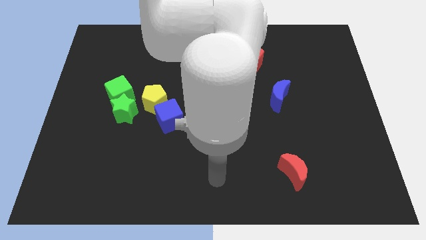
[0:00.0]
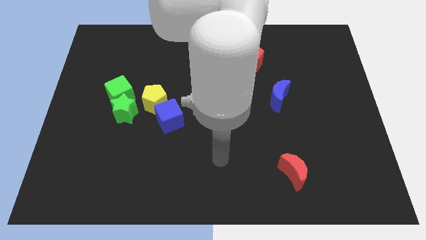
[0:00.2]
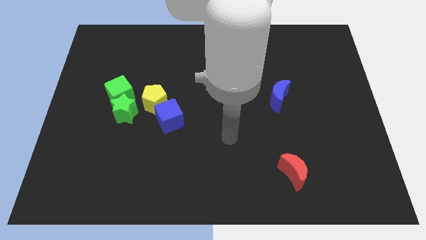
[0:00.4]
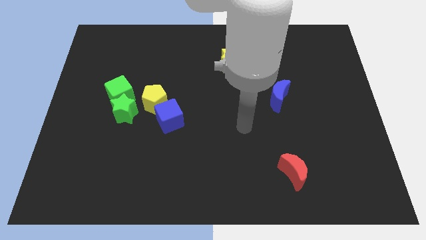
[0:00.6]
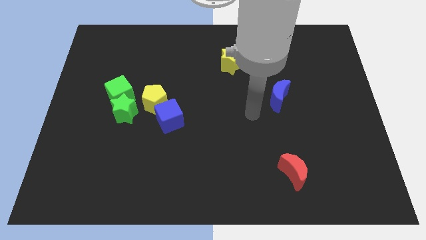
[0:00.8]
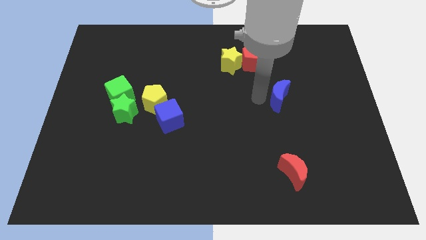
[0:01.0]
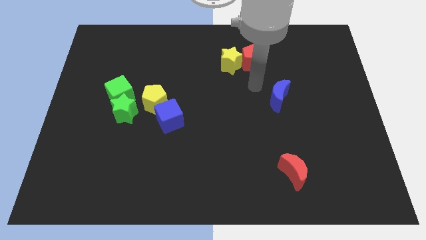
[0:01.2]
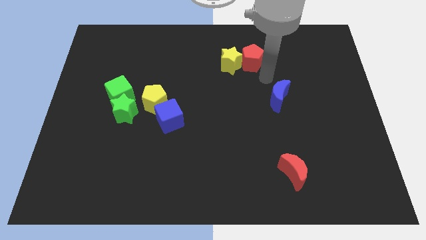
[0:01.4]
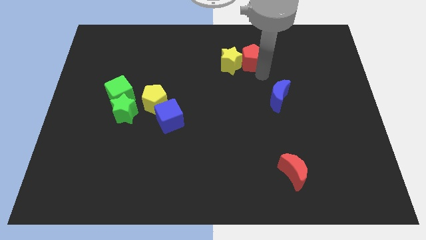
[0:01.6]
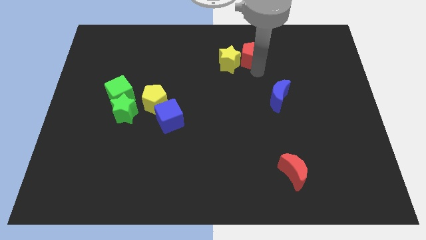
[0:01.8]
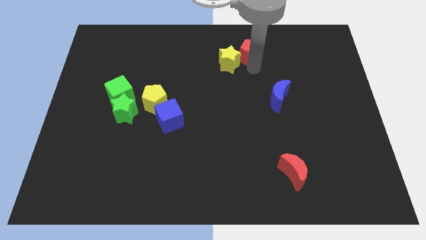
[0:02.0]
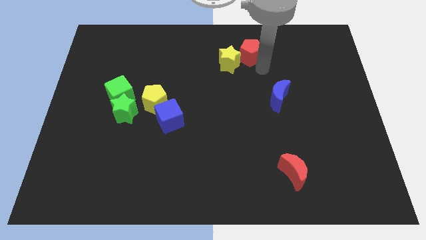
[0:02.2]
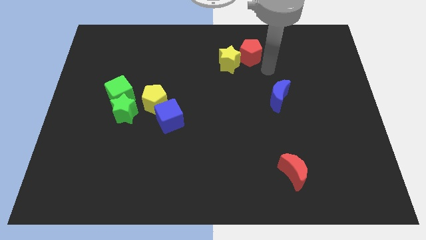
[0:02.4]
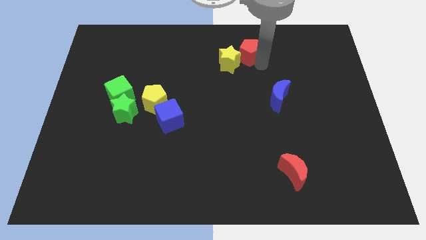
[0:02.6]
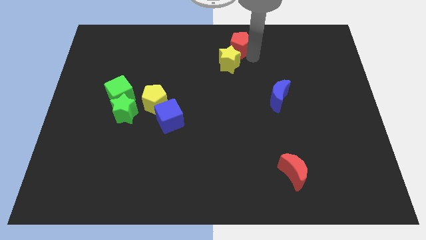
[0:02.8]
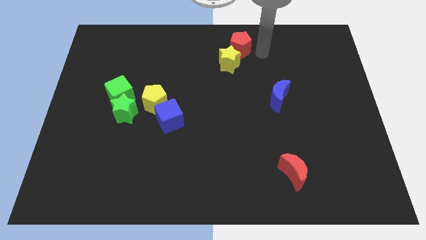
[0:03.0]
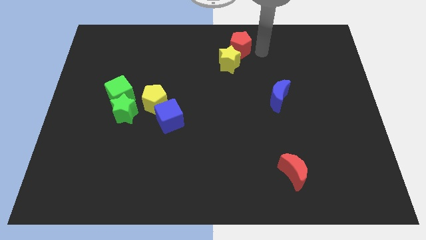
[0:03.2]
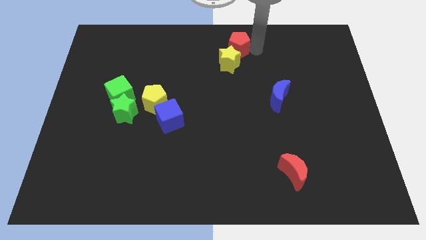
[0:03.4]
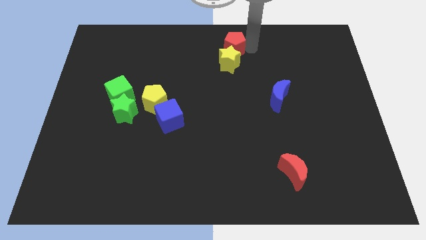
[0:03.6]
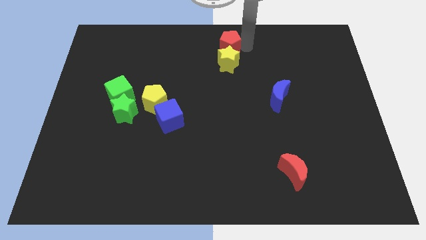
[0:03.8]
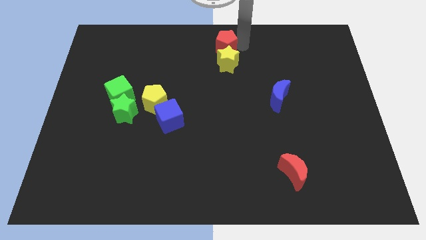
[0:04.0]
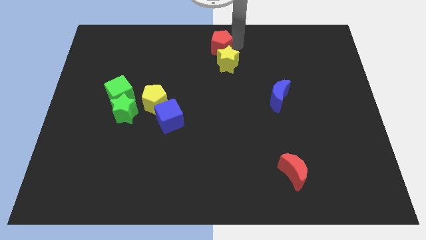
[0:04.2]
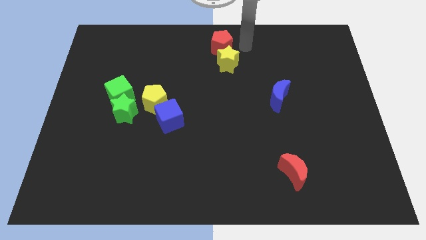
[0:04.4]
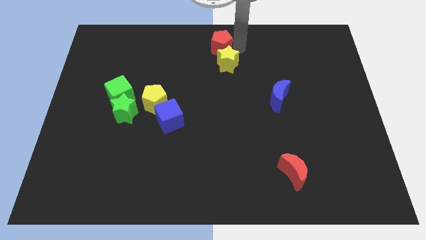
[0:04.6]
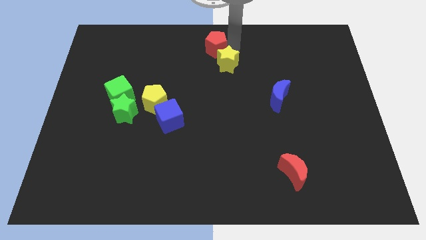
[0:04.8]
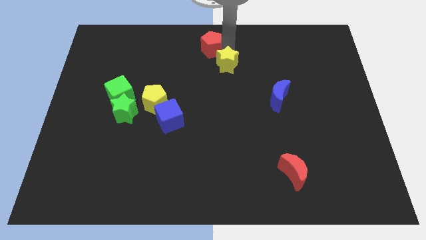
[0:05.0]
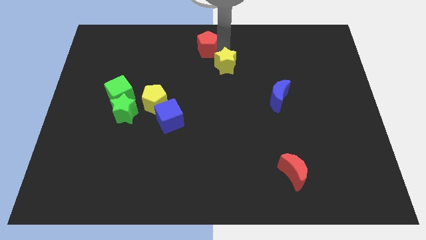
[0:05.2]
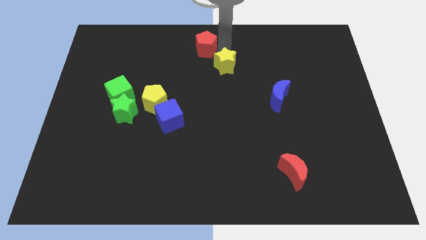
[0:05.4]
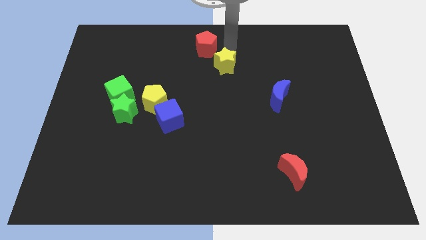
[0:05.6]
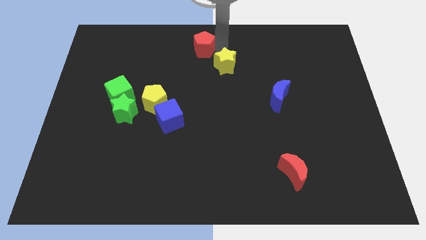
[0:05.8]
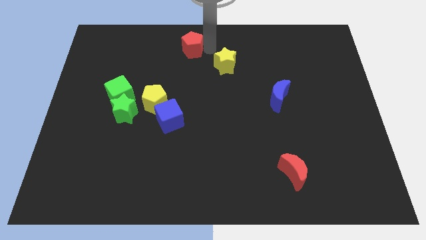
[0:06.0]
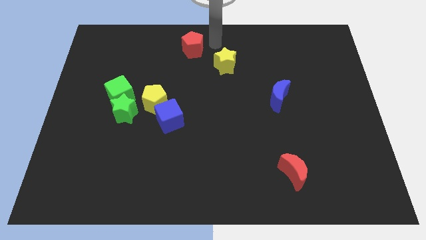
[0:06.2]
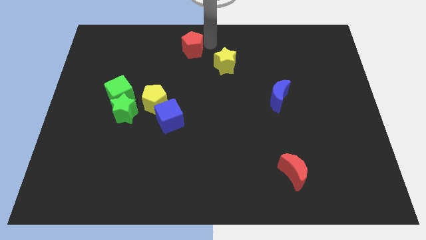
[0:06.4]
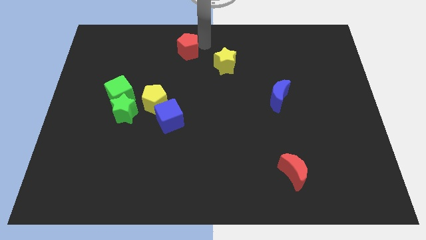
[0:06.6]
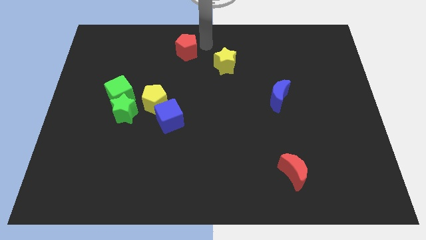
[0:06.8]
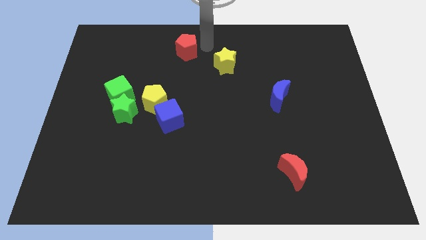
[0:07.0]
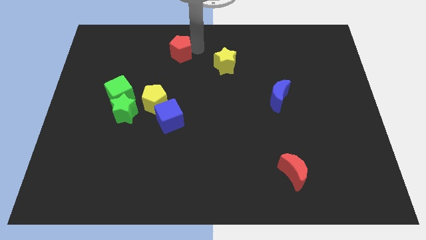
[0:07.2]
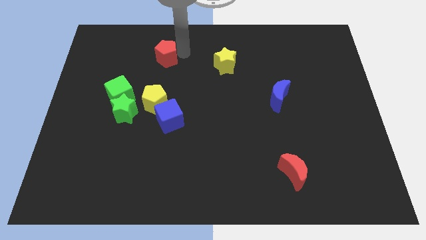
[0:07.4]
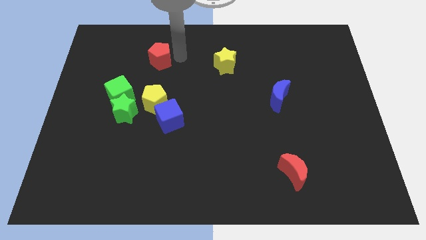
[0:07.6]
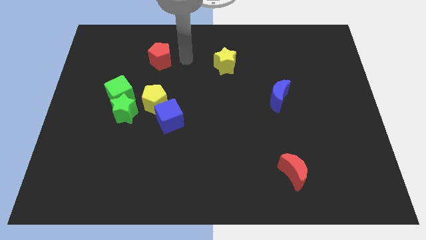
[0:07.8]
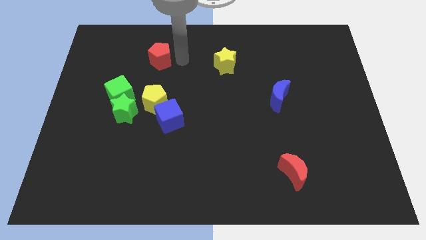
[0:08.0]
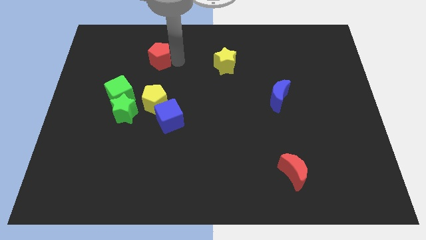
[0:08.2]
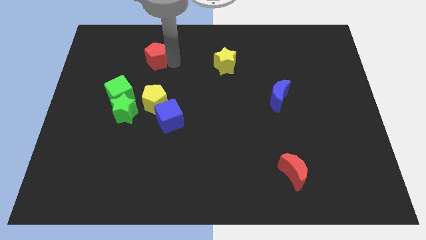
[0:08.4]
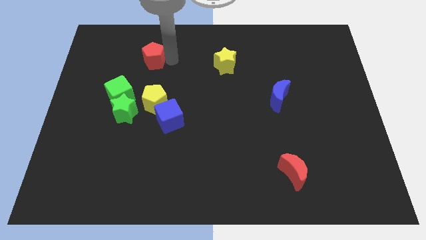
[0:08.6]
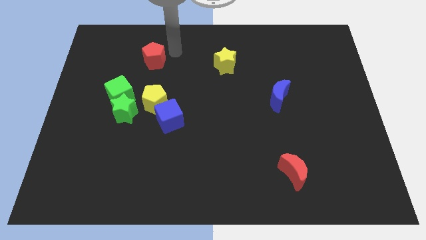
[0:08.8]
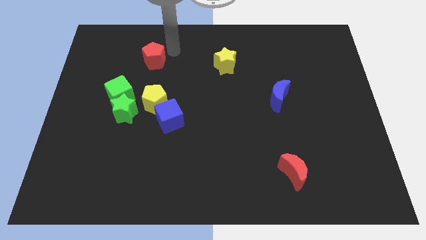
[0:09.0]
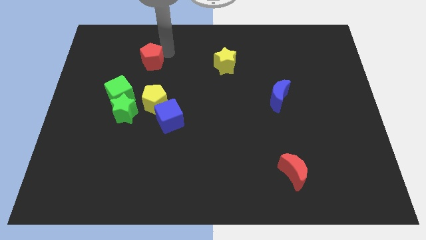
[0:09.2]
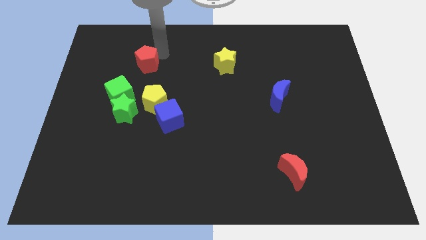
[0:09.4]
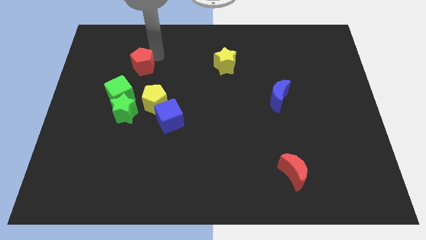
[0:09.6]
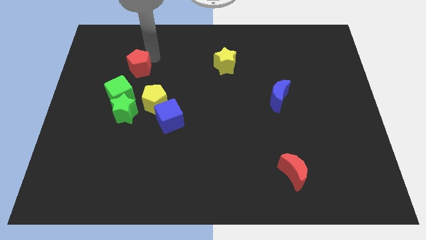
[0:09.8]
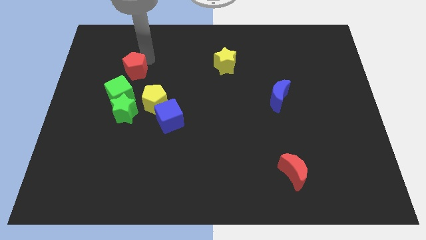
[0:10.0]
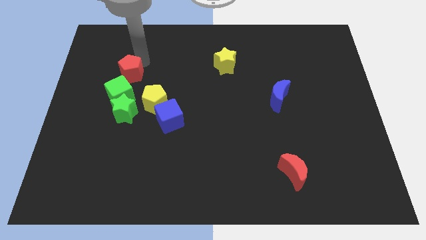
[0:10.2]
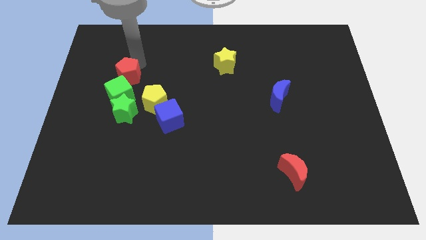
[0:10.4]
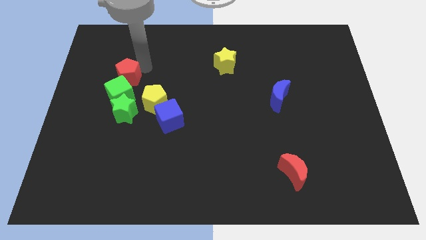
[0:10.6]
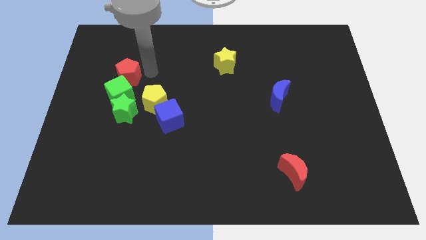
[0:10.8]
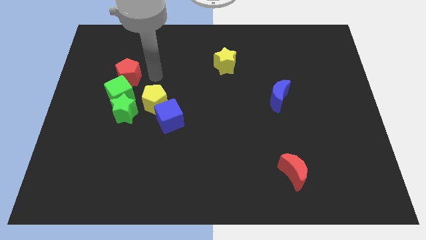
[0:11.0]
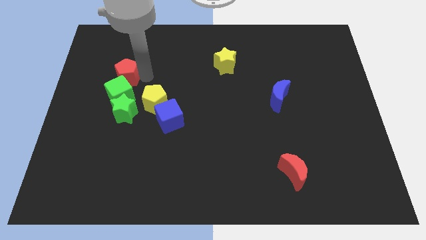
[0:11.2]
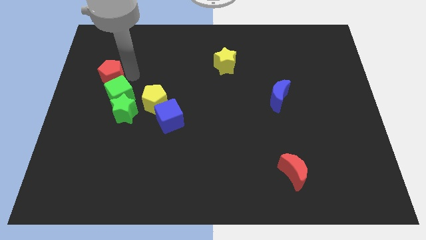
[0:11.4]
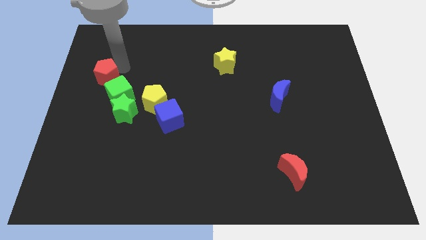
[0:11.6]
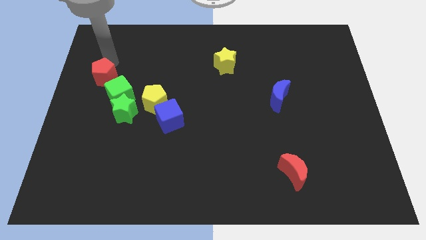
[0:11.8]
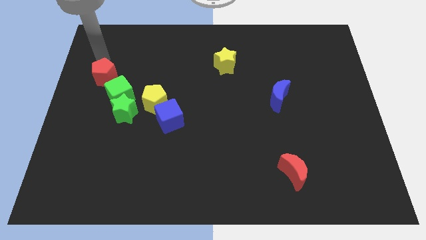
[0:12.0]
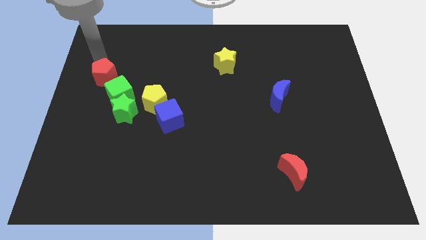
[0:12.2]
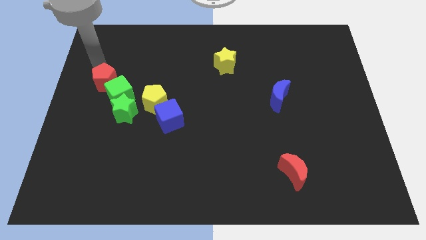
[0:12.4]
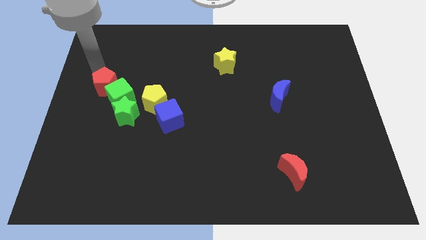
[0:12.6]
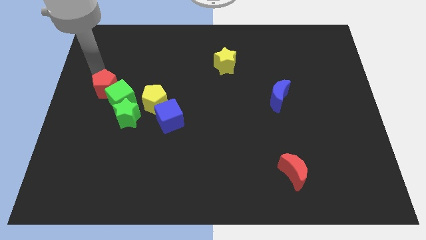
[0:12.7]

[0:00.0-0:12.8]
move the red pentagon to the left of the yellow pentagon

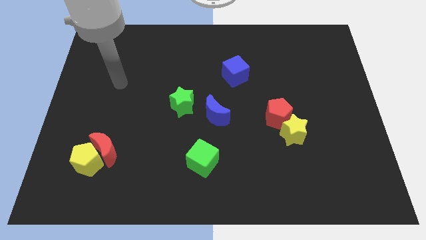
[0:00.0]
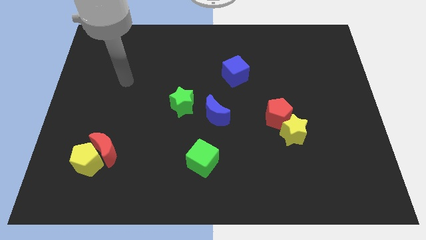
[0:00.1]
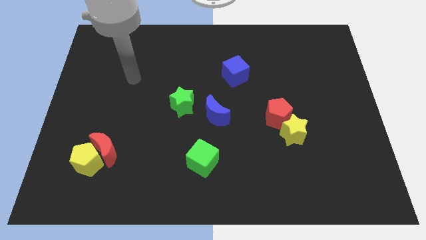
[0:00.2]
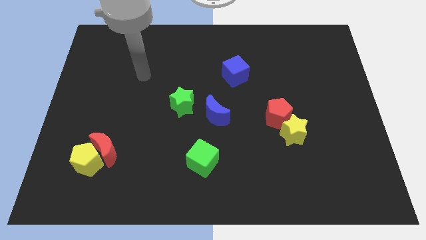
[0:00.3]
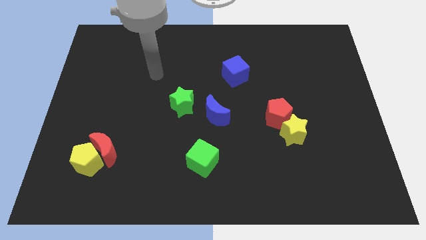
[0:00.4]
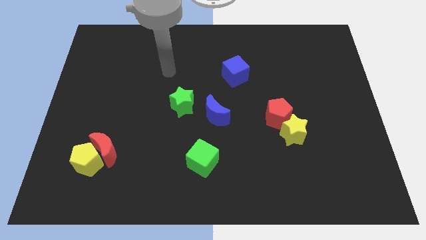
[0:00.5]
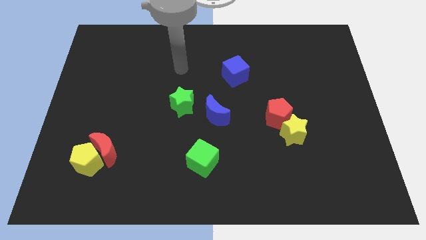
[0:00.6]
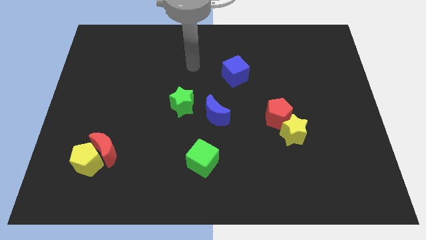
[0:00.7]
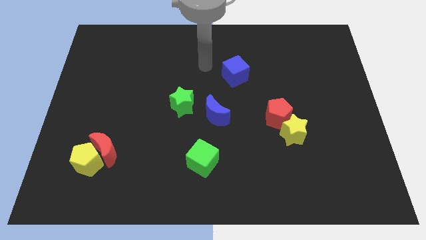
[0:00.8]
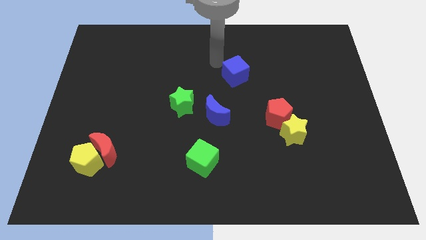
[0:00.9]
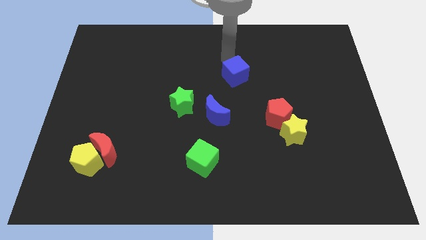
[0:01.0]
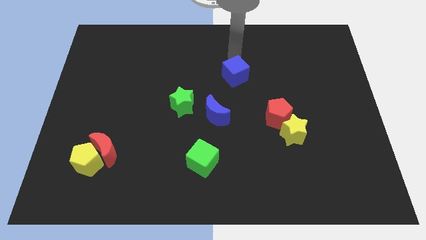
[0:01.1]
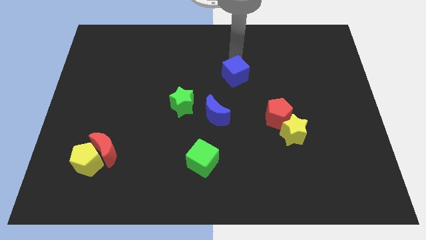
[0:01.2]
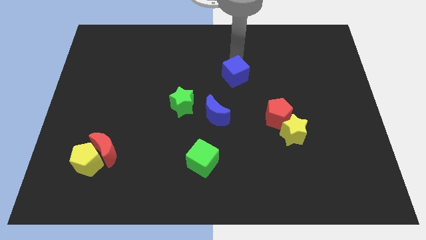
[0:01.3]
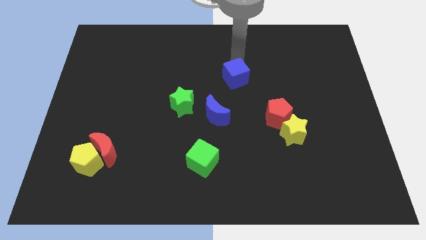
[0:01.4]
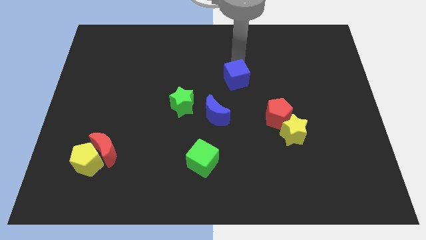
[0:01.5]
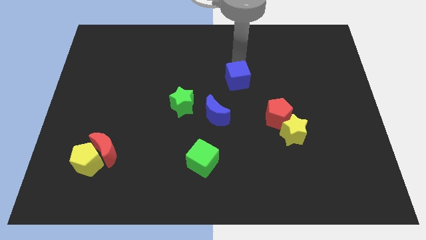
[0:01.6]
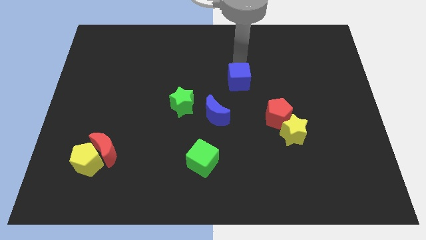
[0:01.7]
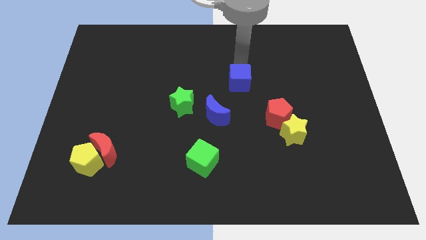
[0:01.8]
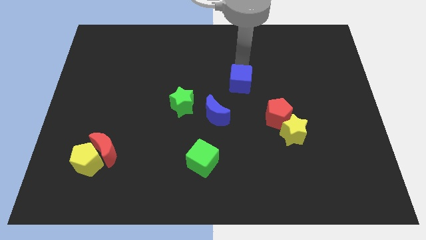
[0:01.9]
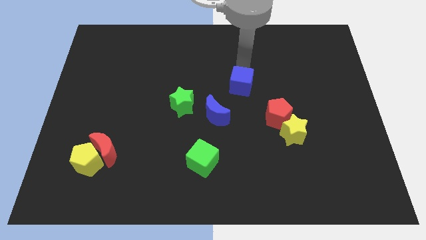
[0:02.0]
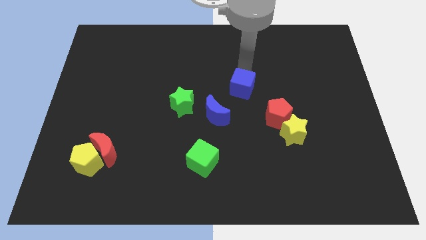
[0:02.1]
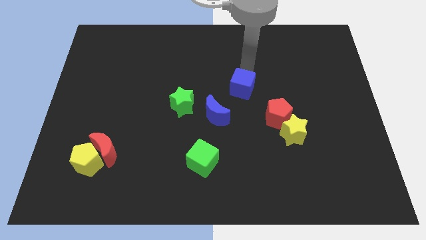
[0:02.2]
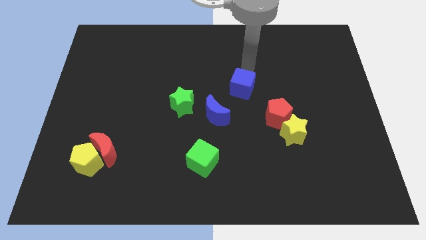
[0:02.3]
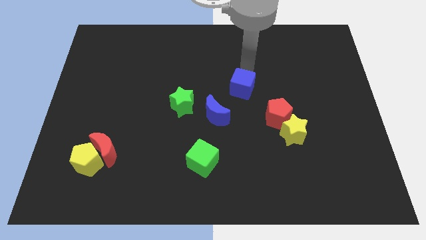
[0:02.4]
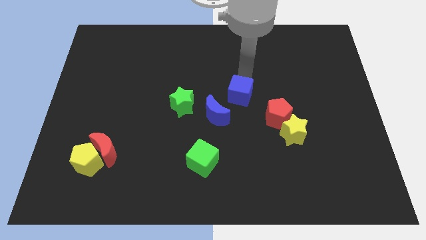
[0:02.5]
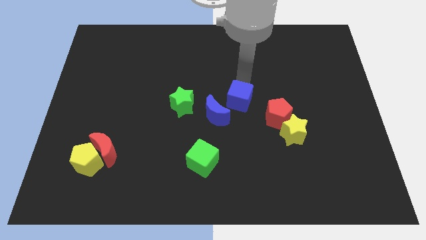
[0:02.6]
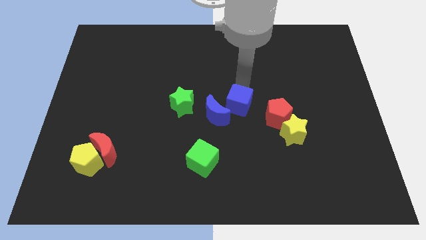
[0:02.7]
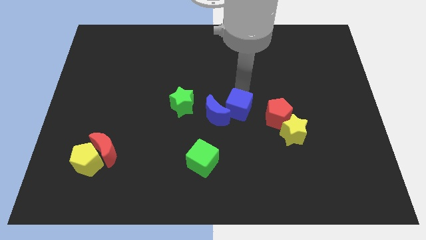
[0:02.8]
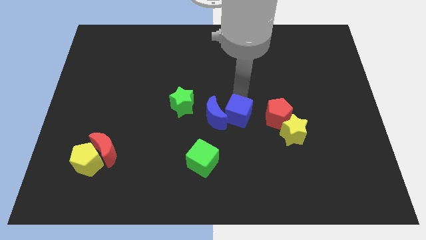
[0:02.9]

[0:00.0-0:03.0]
slide the blue cube diagonally down and to the right of the blue moon
